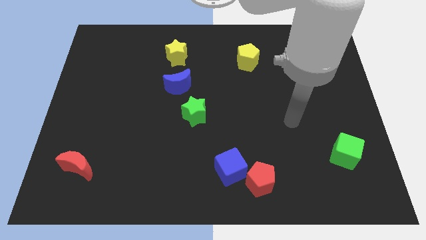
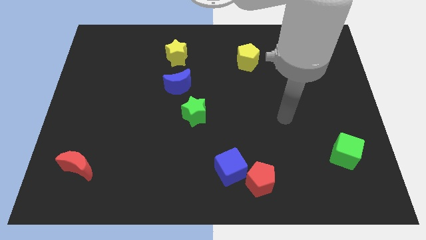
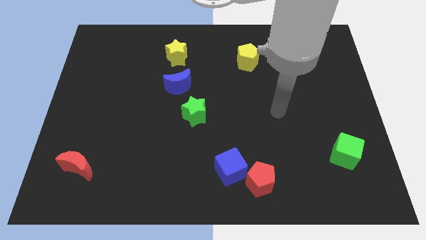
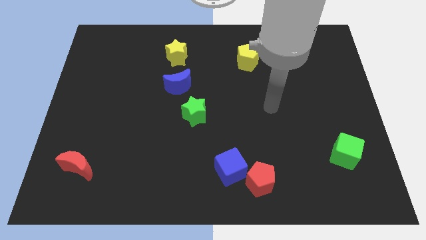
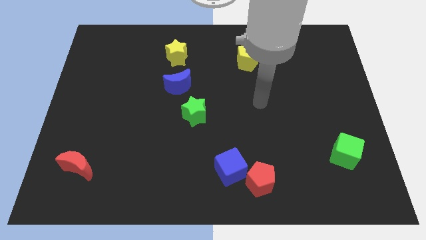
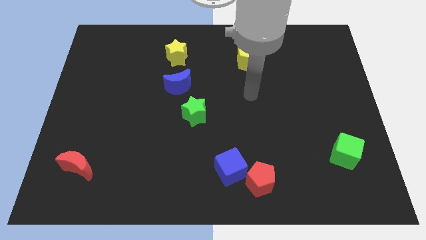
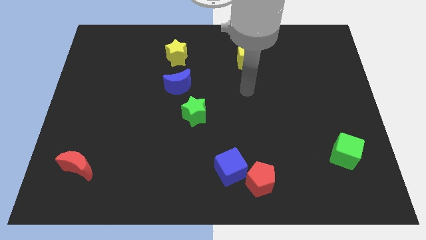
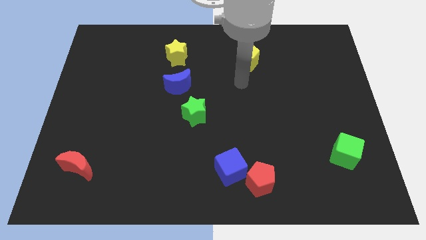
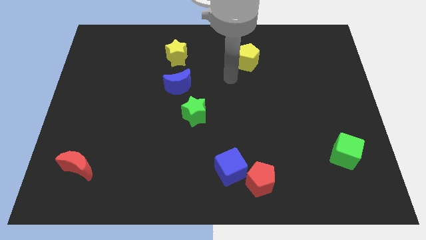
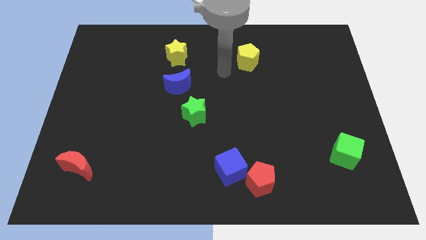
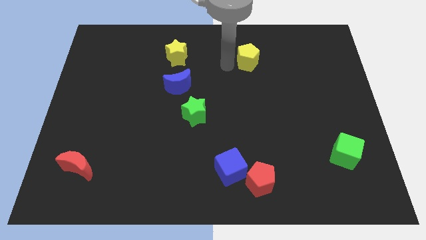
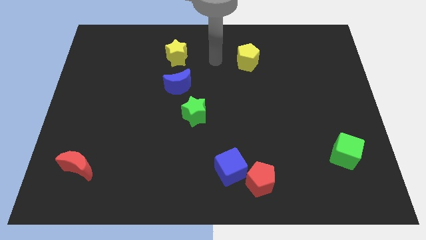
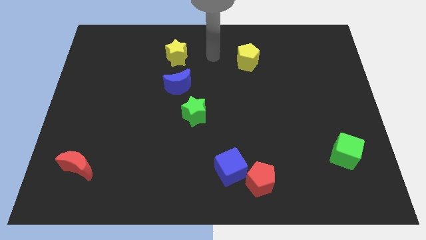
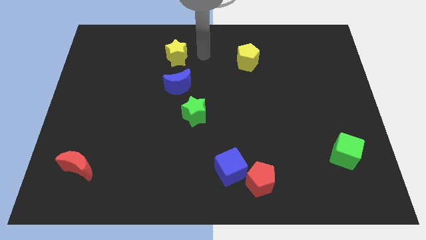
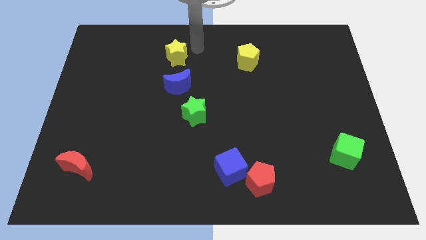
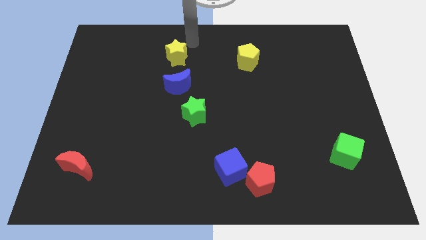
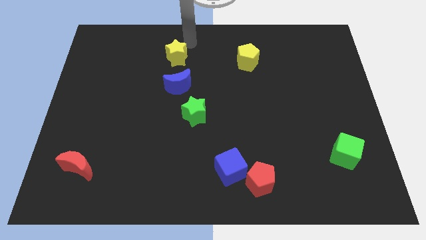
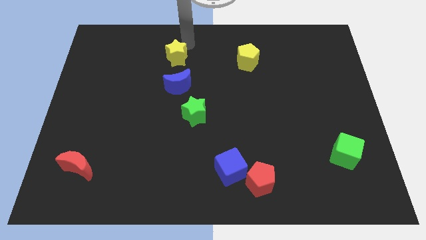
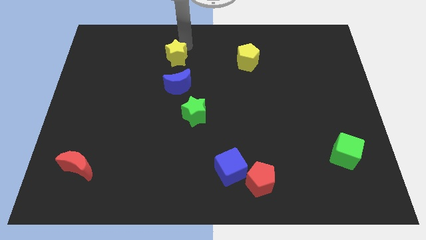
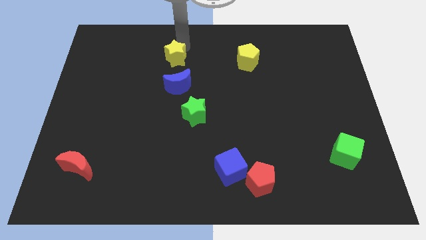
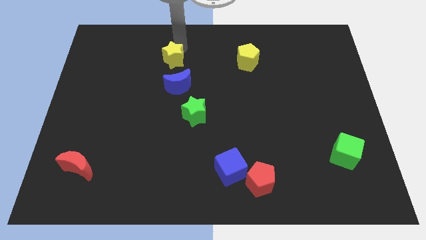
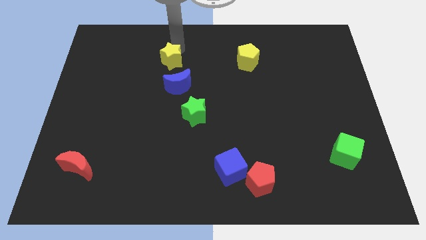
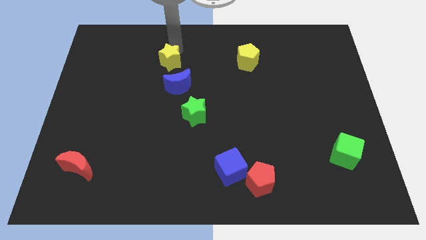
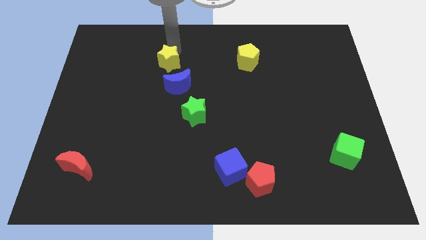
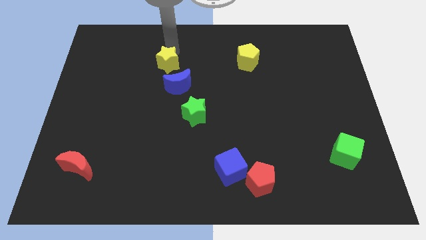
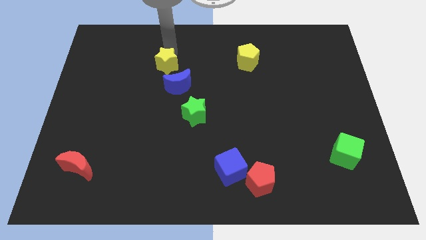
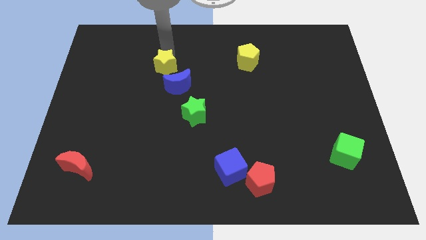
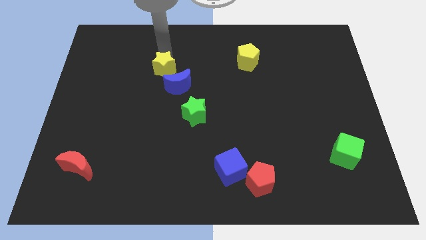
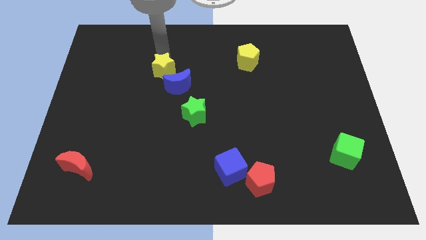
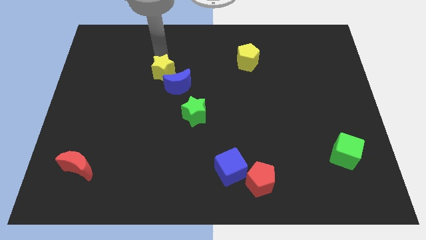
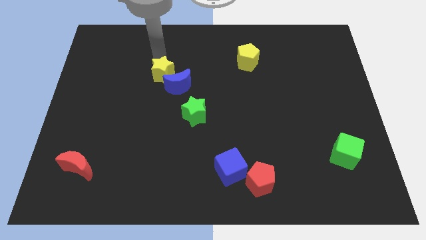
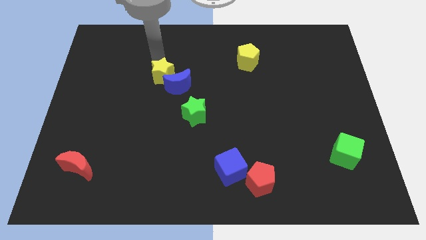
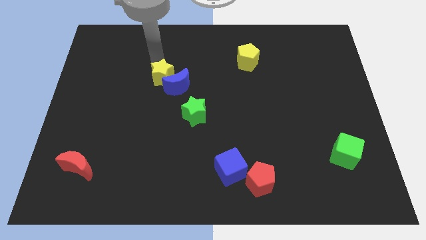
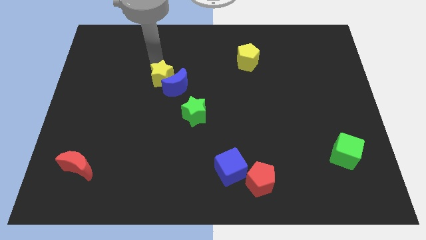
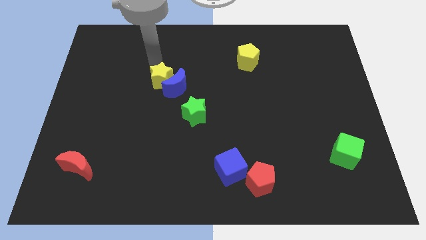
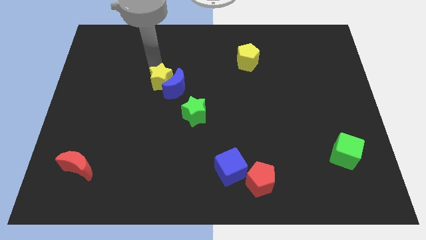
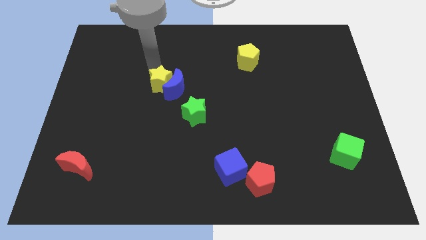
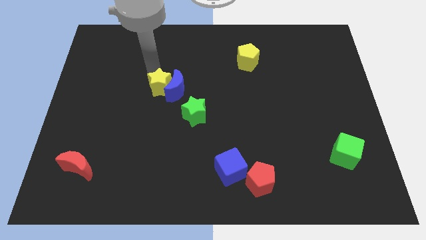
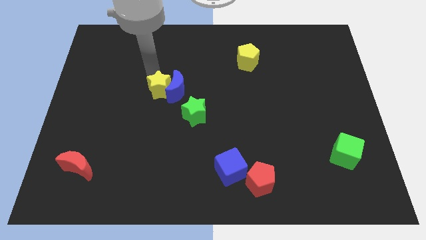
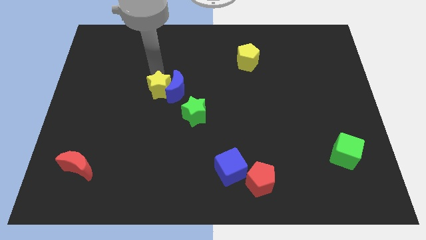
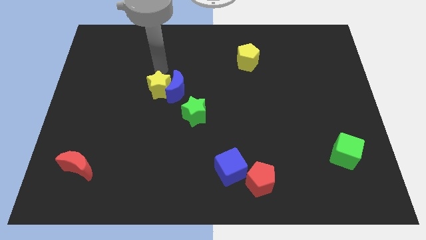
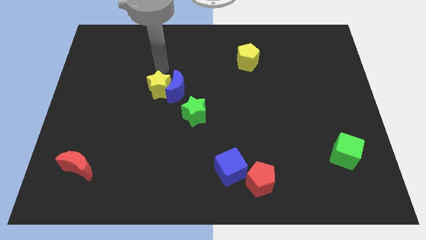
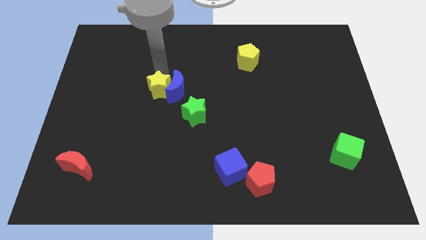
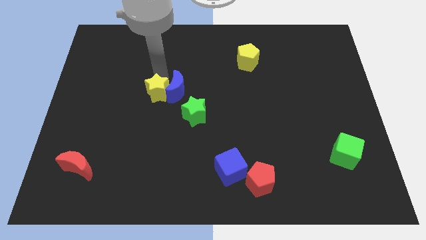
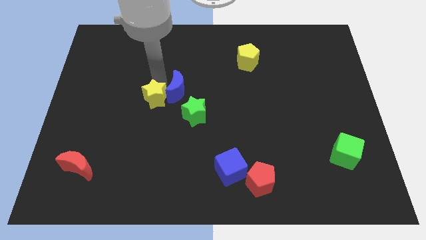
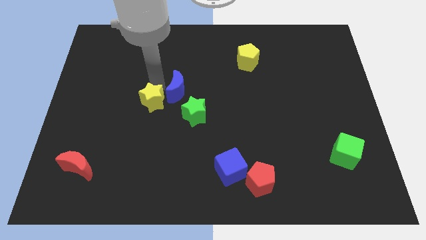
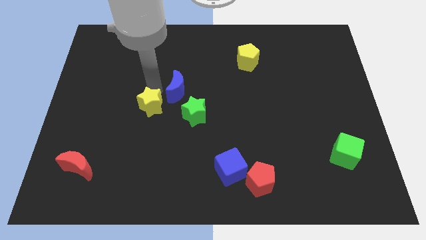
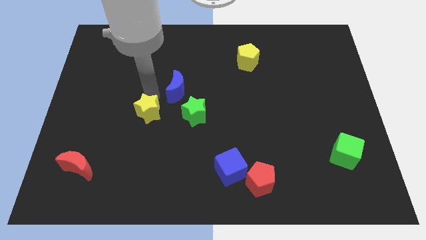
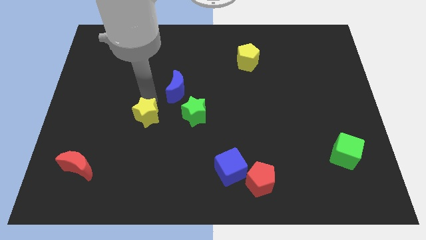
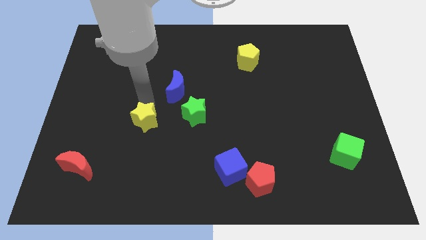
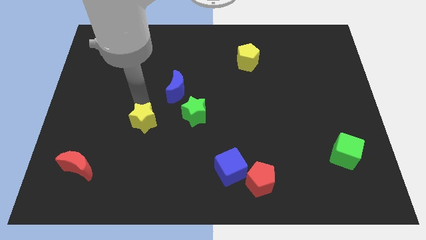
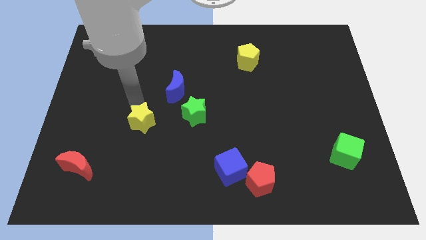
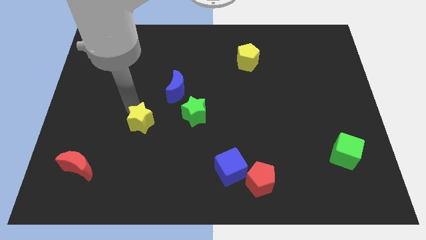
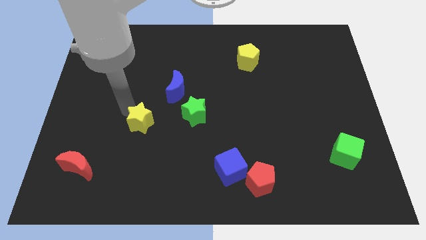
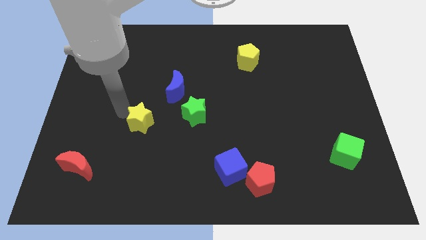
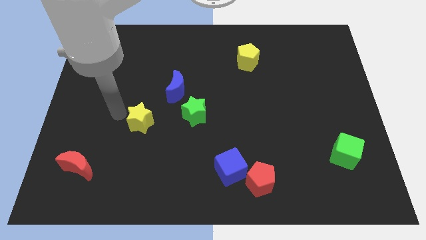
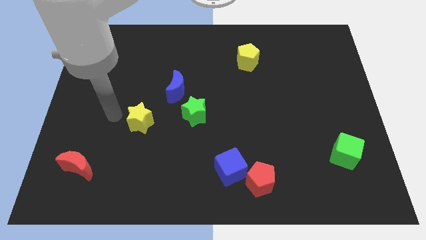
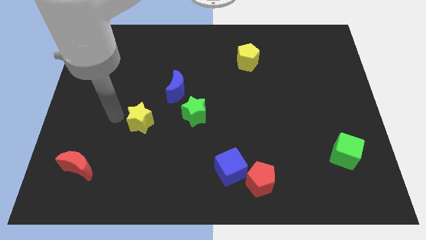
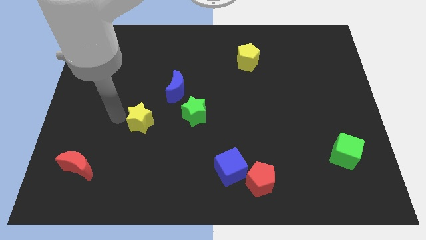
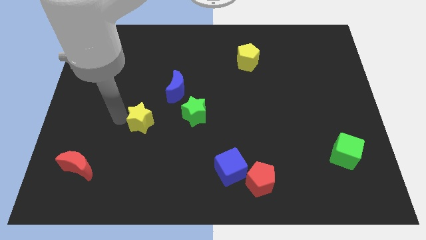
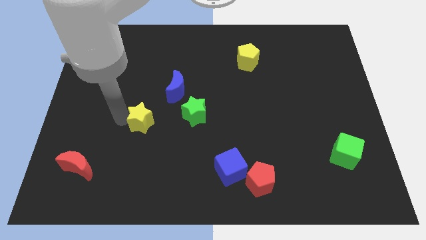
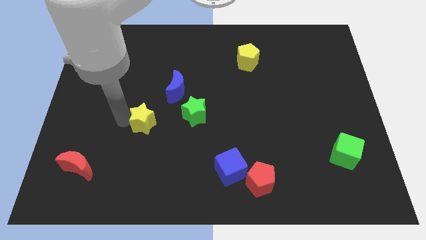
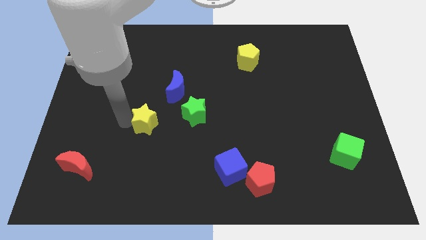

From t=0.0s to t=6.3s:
push the yellow star down

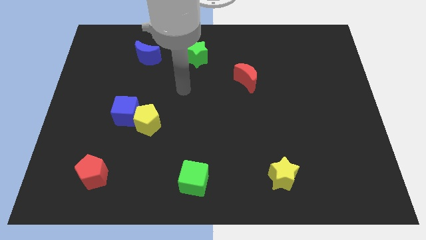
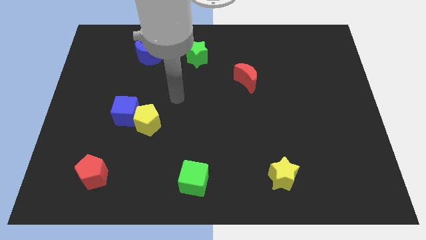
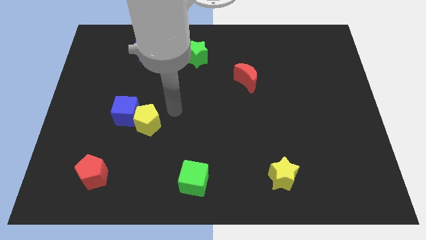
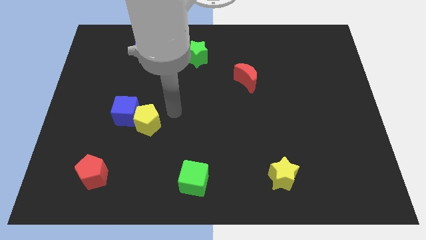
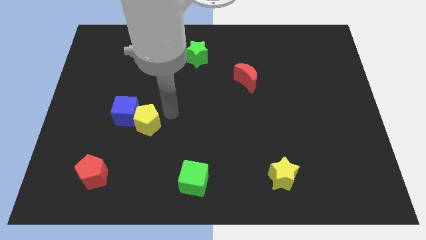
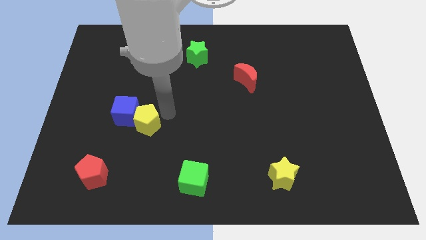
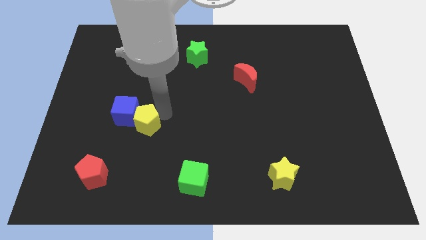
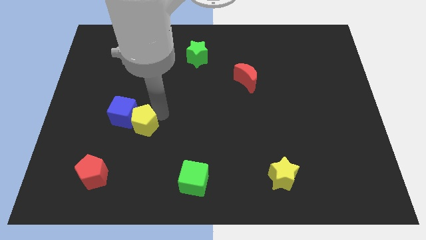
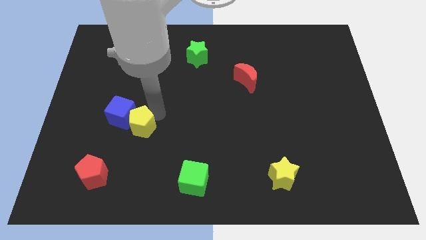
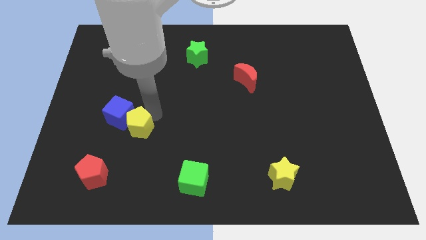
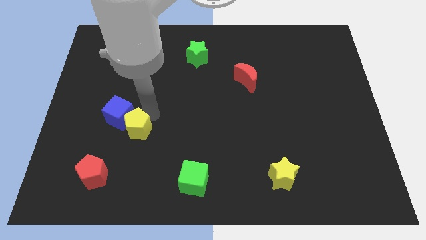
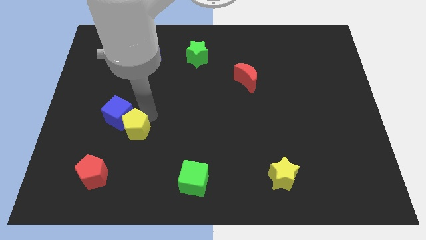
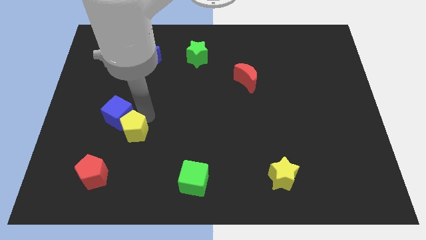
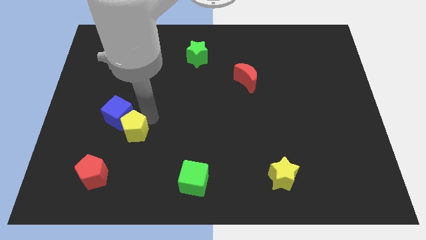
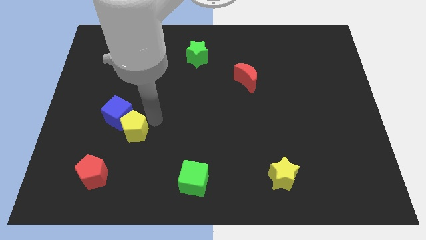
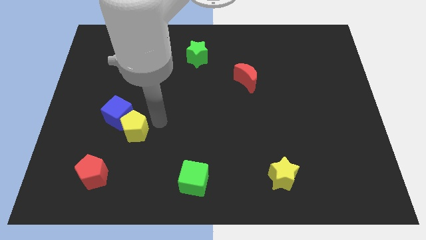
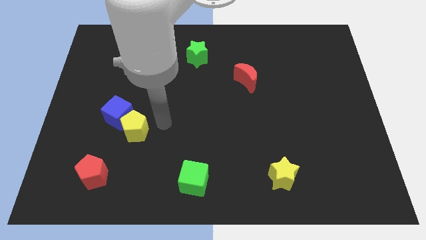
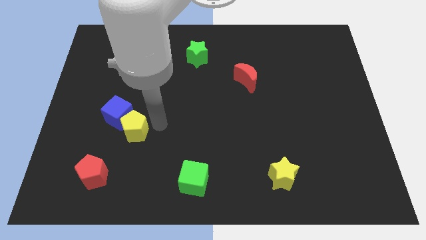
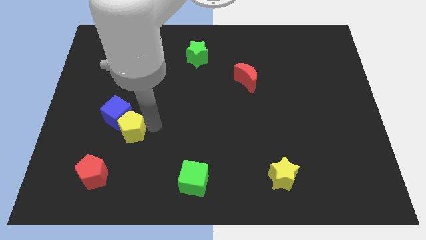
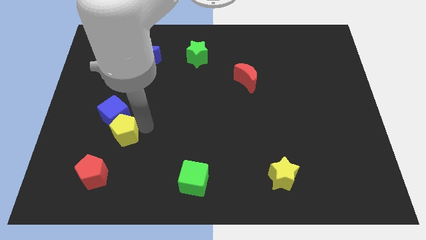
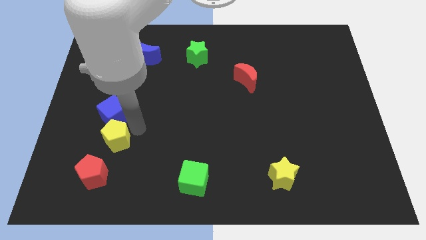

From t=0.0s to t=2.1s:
move the yellow pentagon downwards and left somewhat
